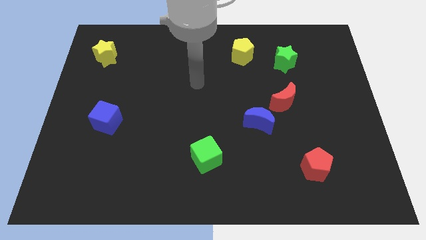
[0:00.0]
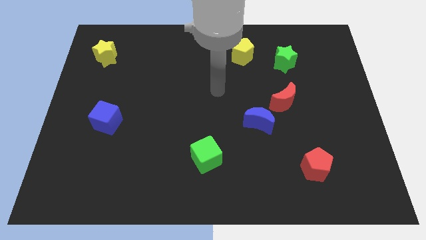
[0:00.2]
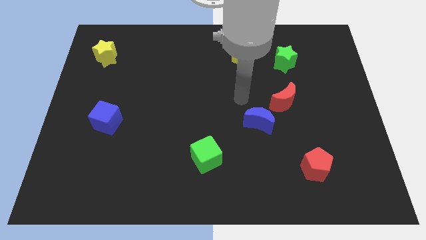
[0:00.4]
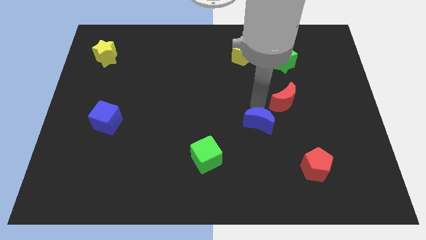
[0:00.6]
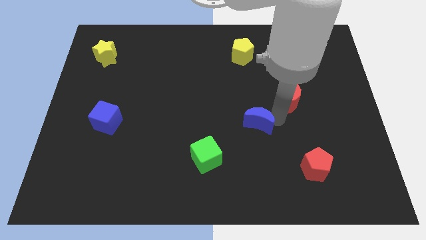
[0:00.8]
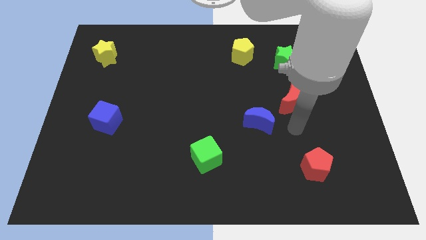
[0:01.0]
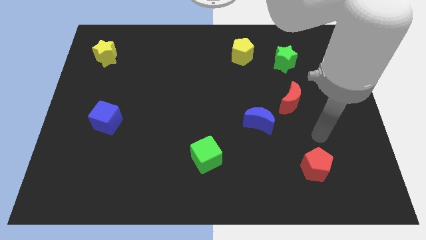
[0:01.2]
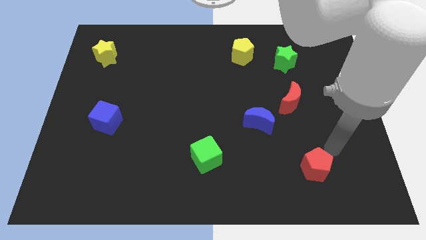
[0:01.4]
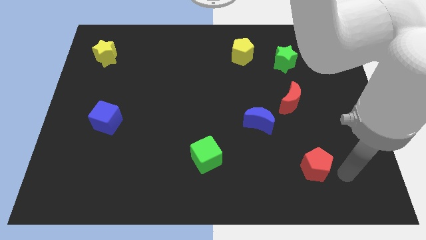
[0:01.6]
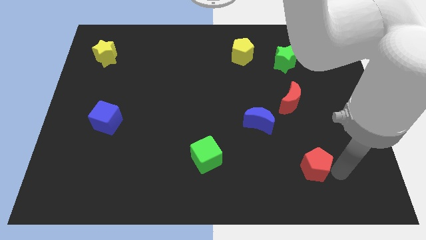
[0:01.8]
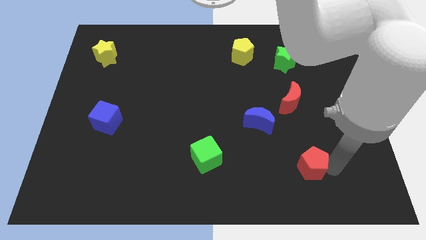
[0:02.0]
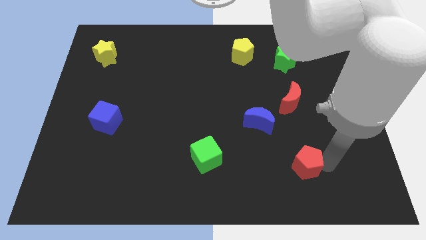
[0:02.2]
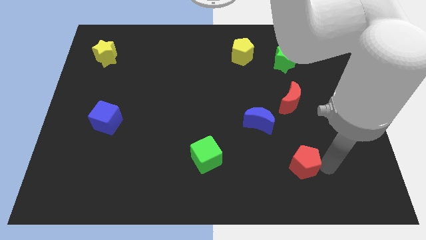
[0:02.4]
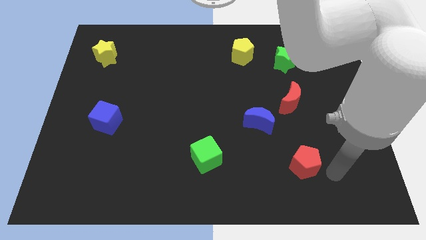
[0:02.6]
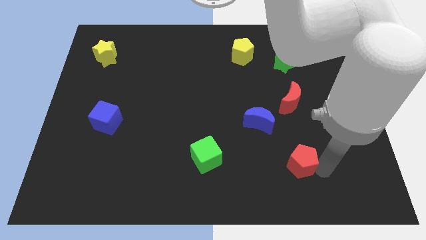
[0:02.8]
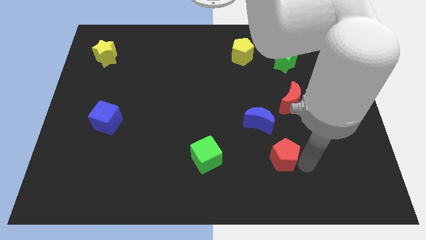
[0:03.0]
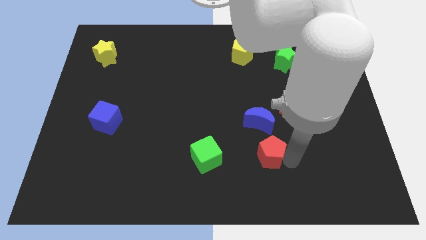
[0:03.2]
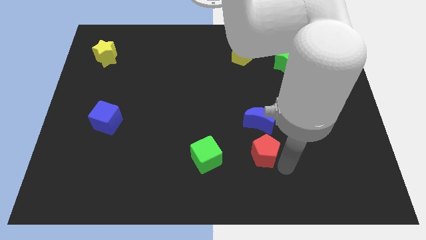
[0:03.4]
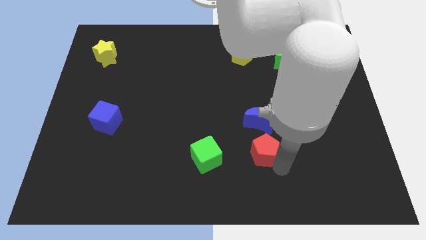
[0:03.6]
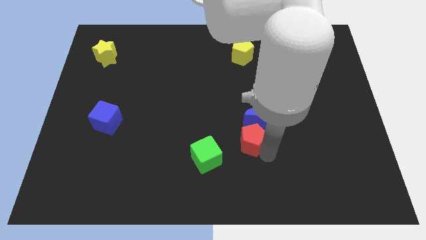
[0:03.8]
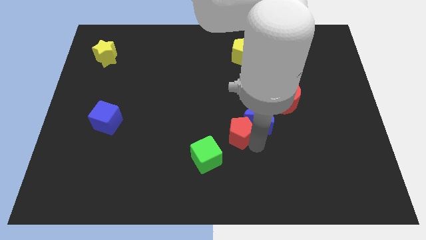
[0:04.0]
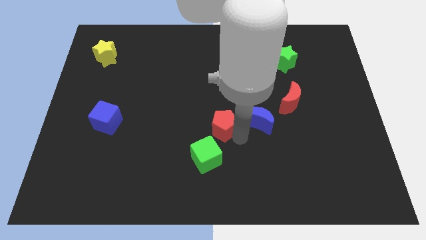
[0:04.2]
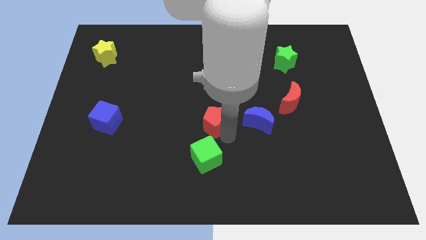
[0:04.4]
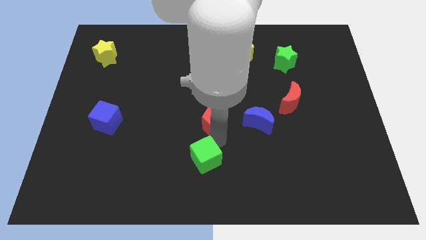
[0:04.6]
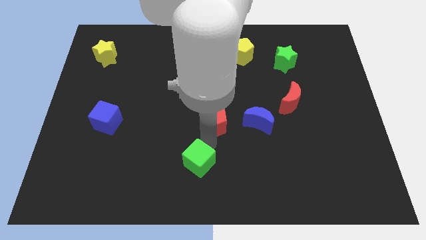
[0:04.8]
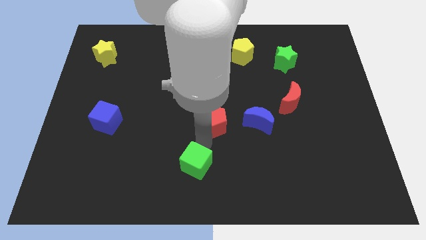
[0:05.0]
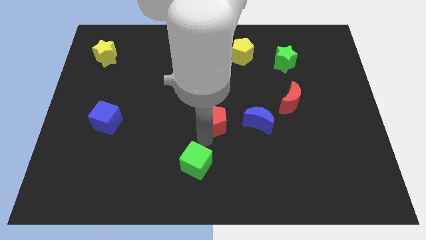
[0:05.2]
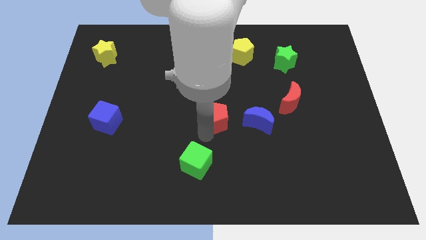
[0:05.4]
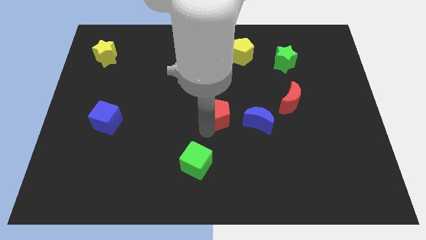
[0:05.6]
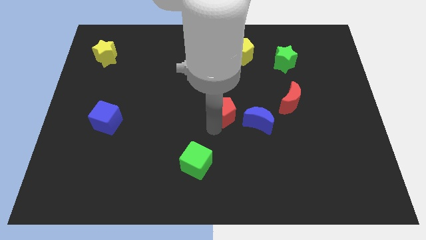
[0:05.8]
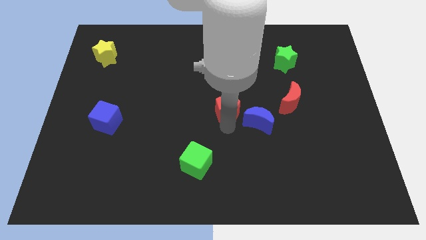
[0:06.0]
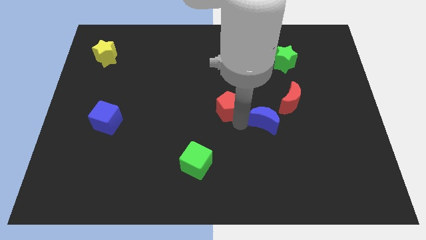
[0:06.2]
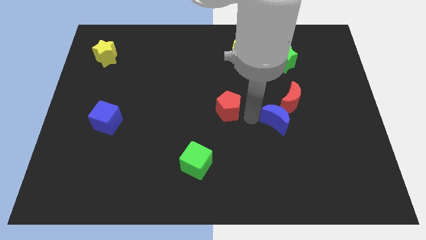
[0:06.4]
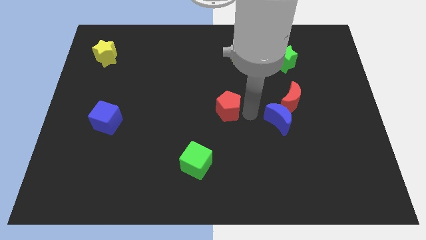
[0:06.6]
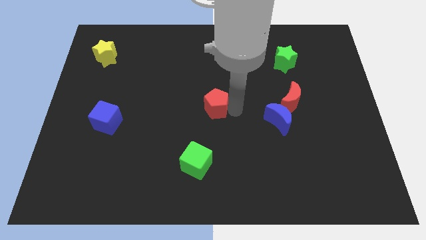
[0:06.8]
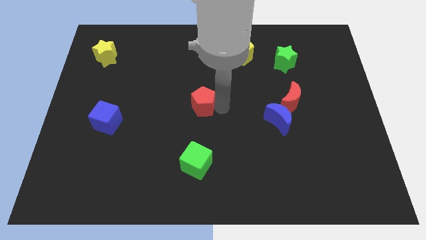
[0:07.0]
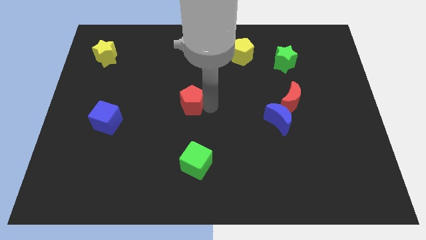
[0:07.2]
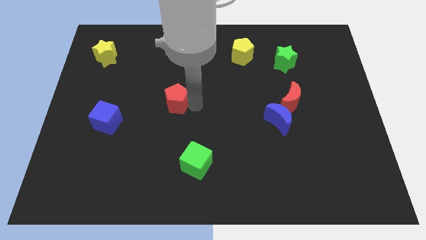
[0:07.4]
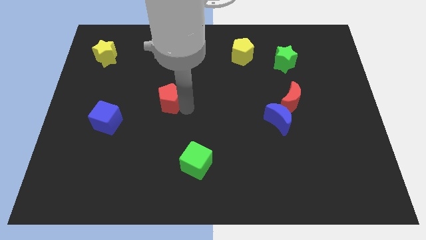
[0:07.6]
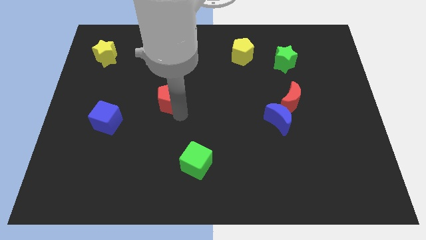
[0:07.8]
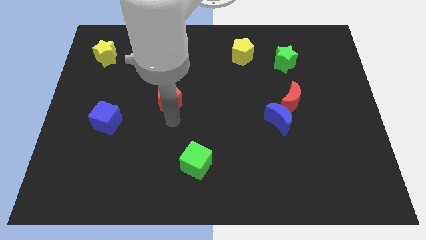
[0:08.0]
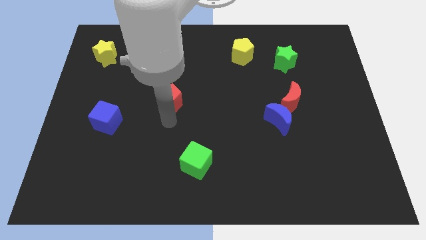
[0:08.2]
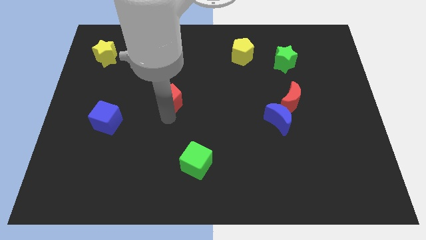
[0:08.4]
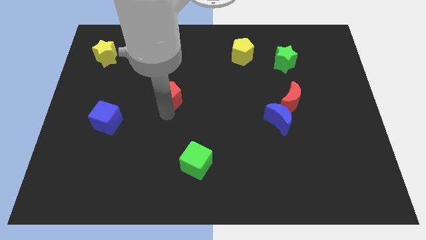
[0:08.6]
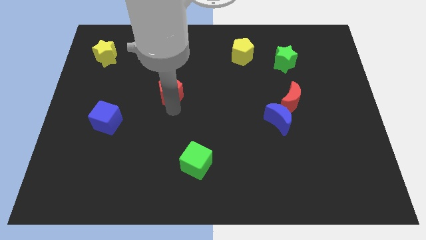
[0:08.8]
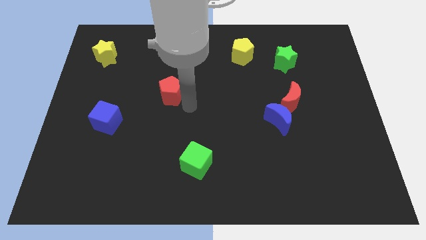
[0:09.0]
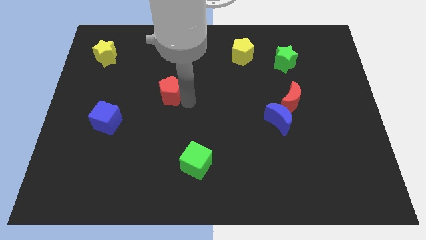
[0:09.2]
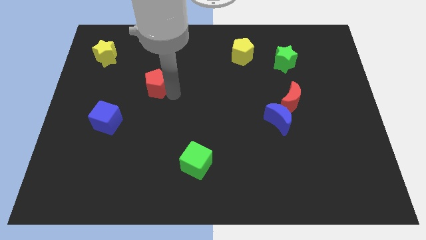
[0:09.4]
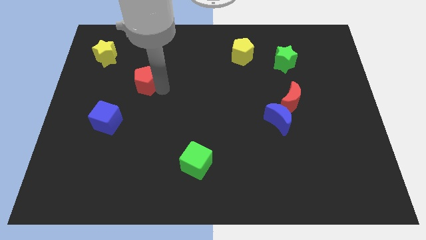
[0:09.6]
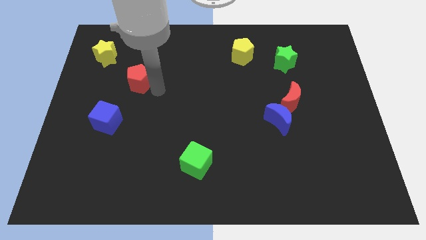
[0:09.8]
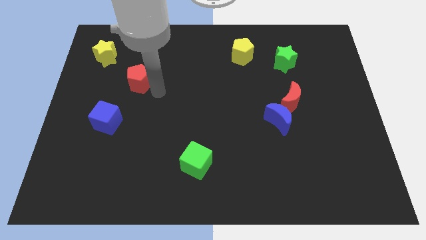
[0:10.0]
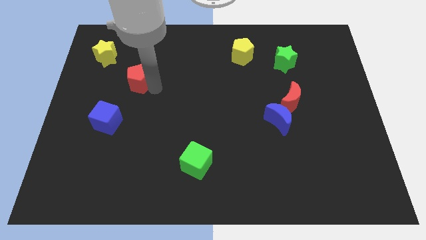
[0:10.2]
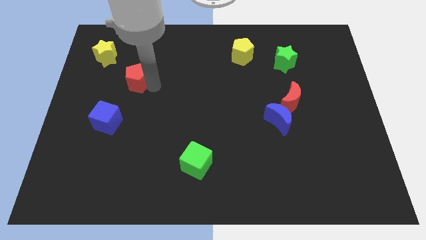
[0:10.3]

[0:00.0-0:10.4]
slide the red pentagon to the bottom right of the yellow star

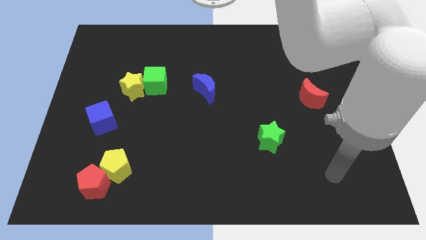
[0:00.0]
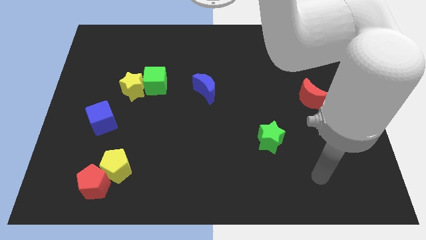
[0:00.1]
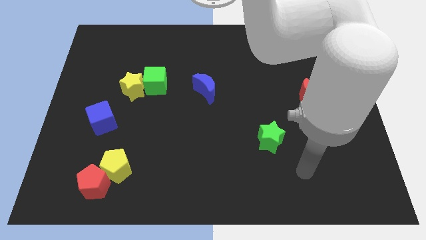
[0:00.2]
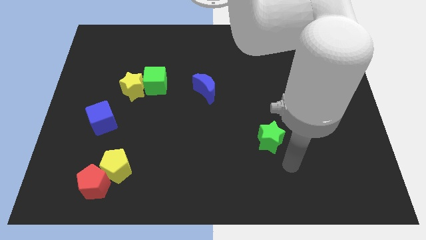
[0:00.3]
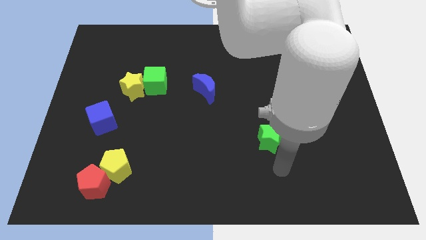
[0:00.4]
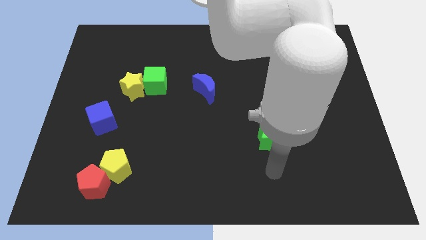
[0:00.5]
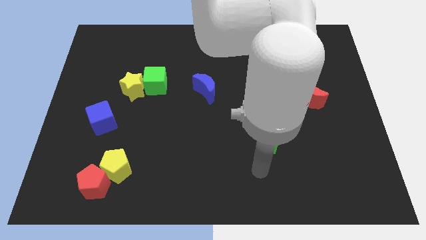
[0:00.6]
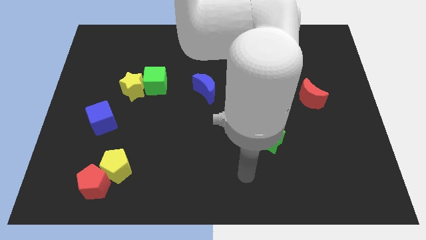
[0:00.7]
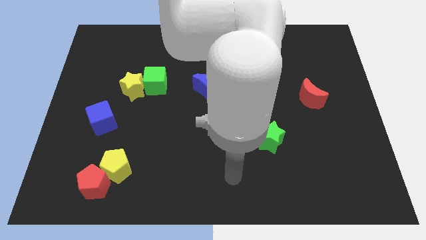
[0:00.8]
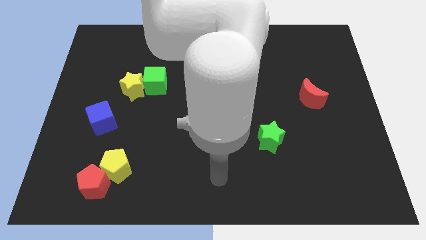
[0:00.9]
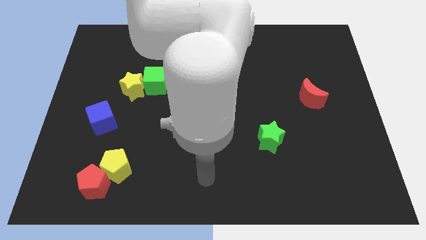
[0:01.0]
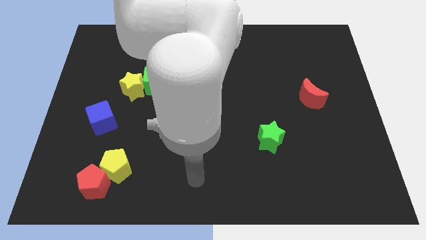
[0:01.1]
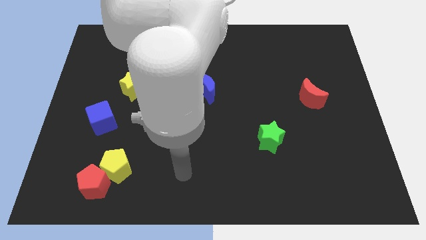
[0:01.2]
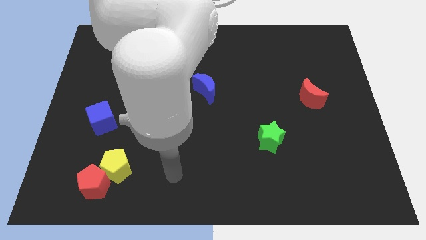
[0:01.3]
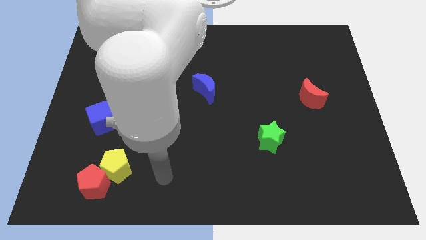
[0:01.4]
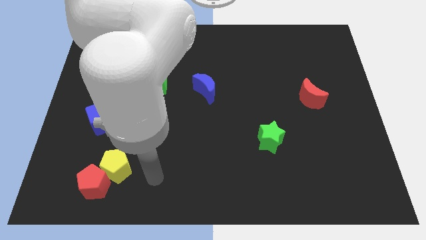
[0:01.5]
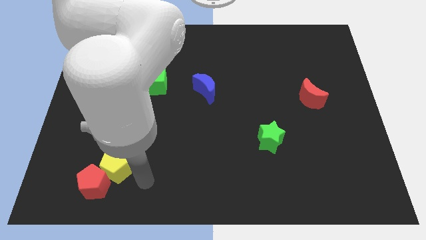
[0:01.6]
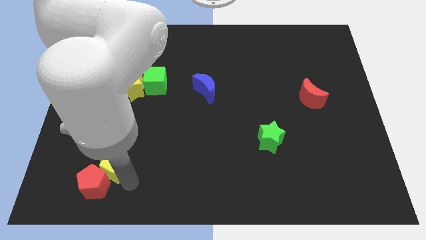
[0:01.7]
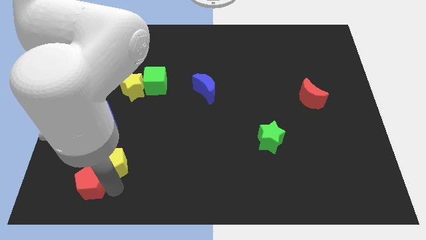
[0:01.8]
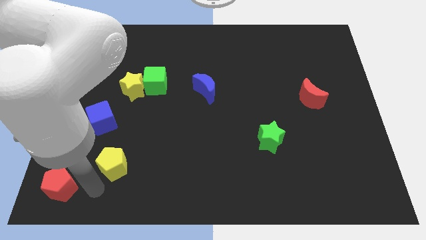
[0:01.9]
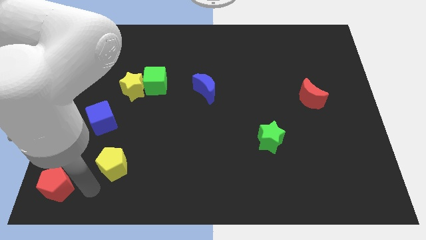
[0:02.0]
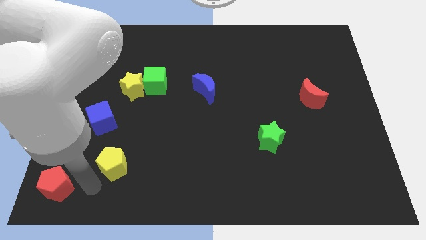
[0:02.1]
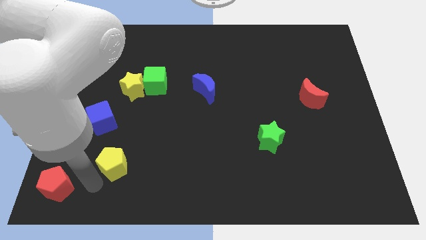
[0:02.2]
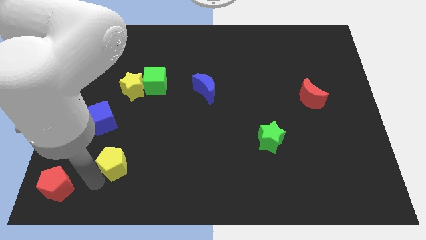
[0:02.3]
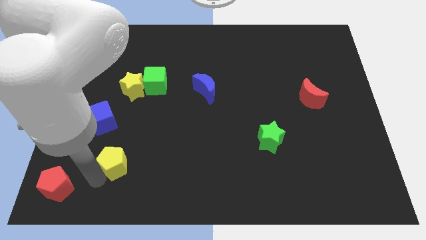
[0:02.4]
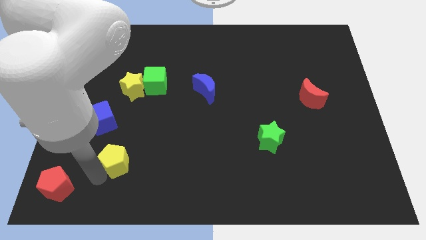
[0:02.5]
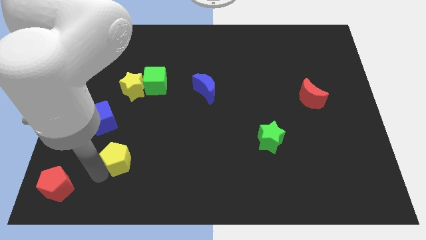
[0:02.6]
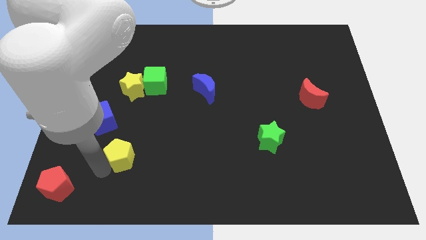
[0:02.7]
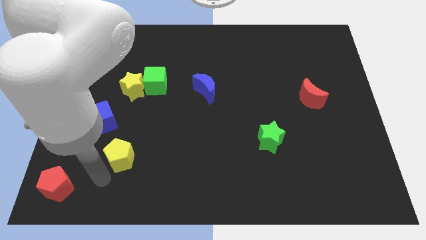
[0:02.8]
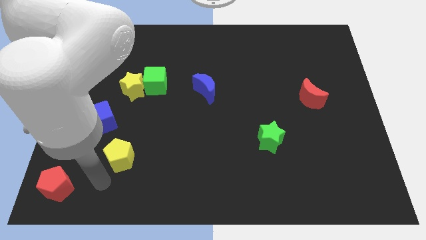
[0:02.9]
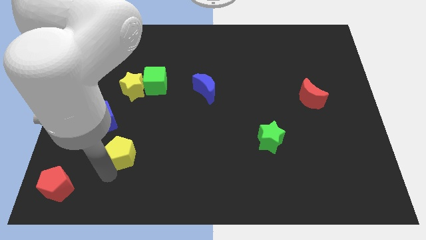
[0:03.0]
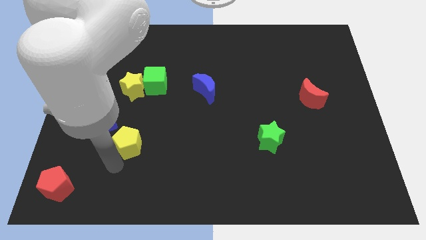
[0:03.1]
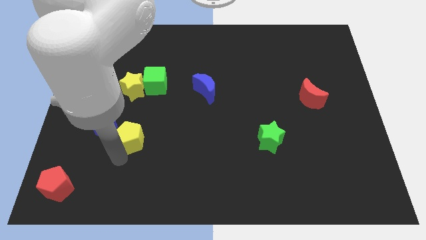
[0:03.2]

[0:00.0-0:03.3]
move the yellow pentagon to the right side of the blue cube
